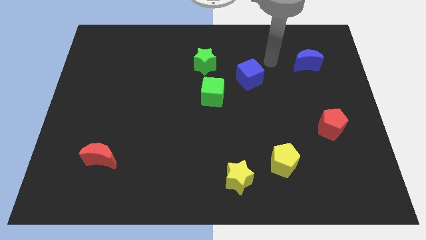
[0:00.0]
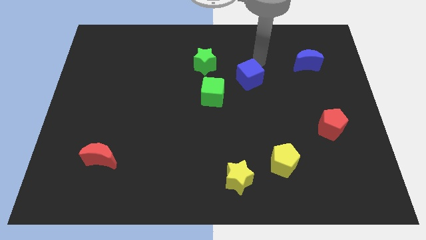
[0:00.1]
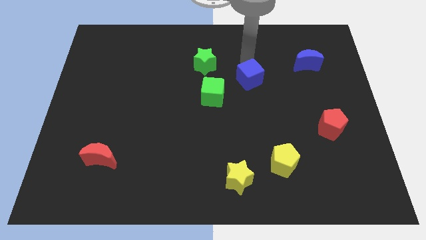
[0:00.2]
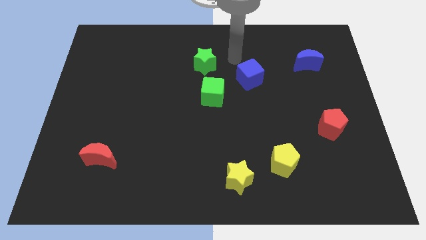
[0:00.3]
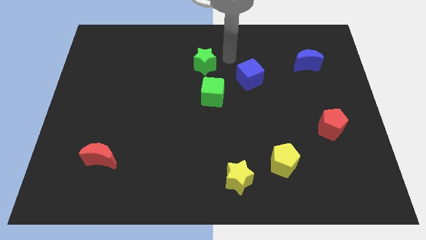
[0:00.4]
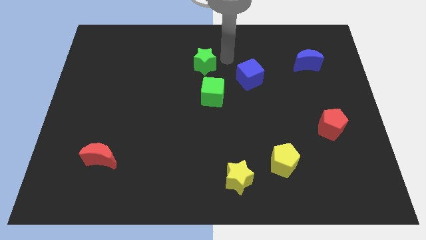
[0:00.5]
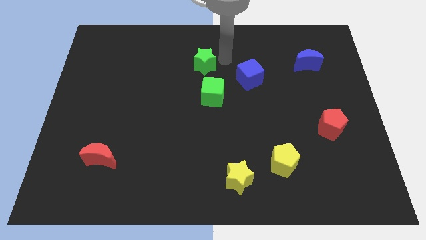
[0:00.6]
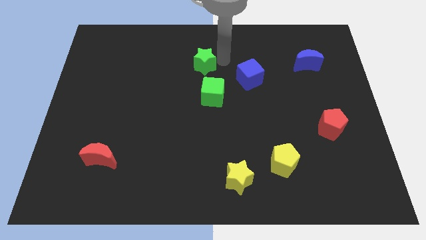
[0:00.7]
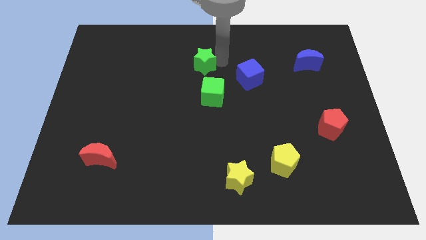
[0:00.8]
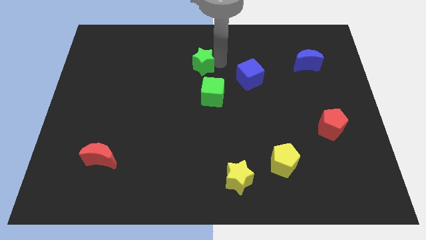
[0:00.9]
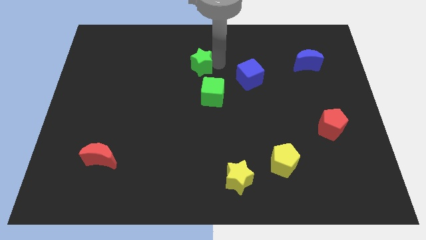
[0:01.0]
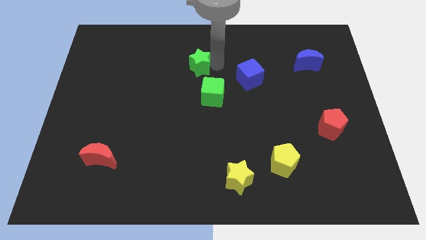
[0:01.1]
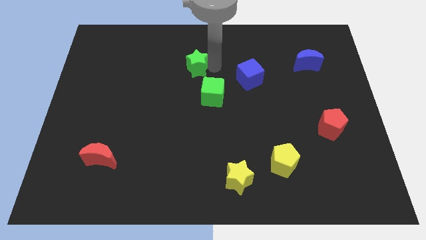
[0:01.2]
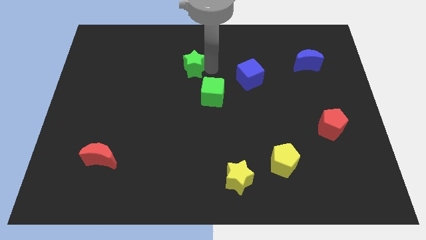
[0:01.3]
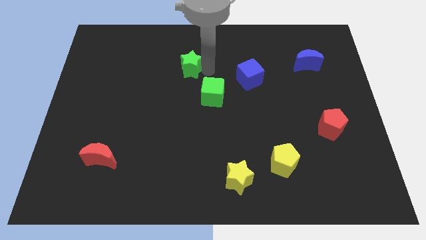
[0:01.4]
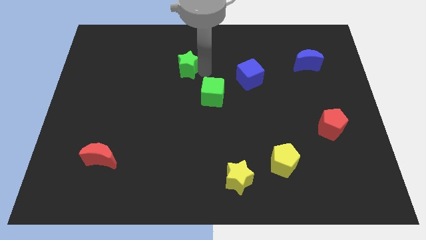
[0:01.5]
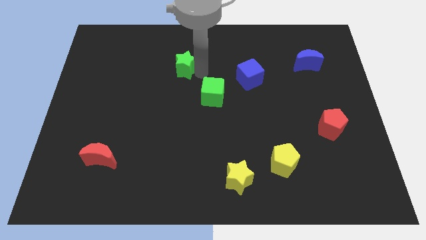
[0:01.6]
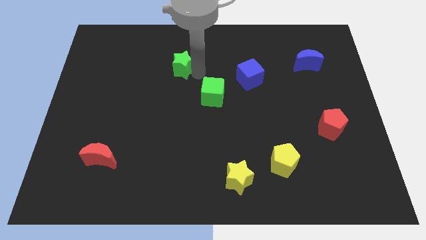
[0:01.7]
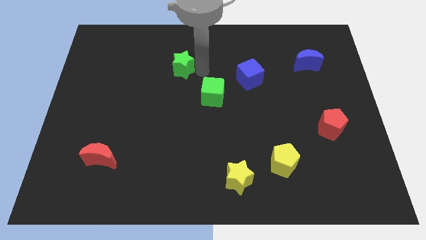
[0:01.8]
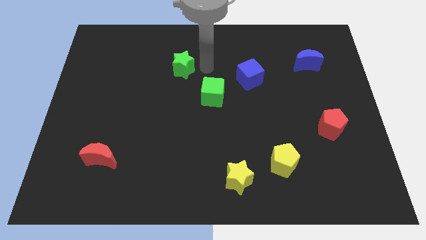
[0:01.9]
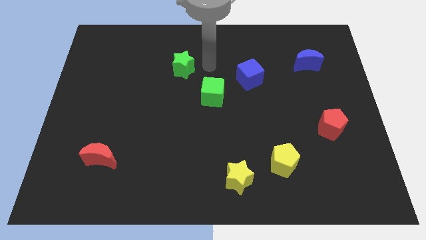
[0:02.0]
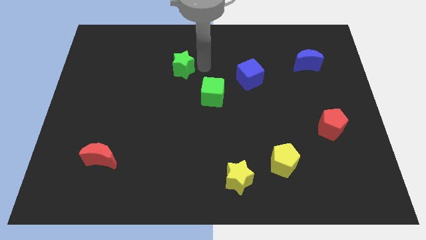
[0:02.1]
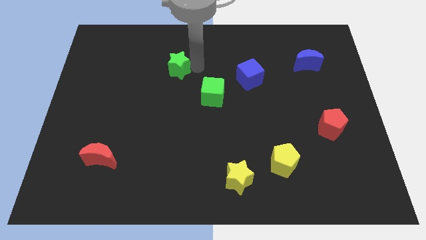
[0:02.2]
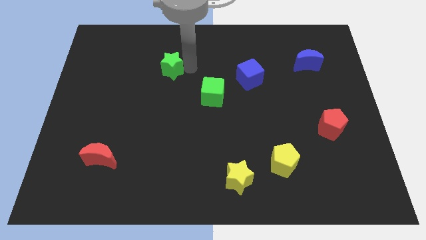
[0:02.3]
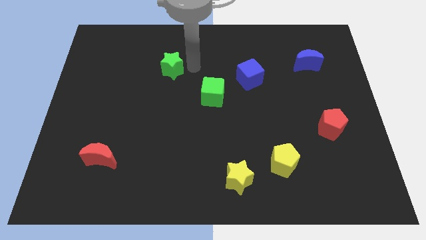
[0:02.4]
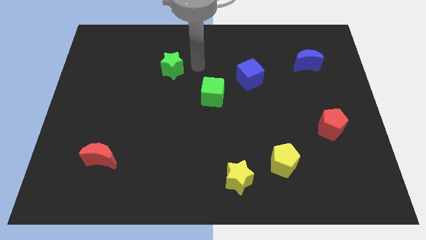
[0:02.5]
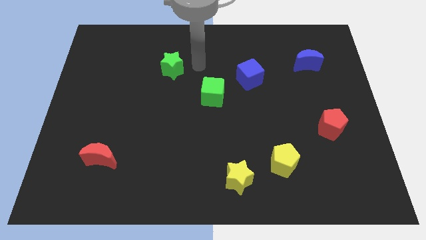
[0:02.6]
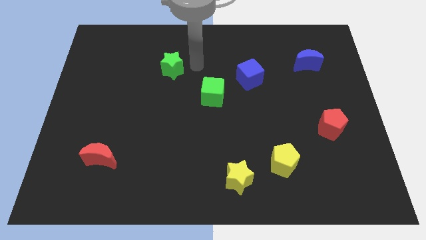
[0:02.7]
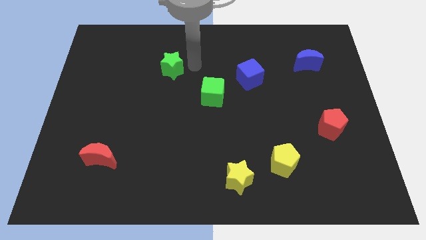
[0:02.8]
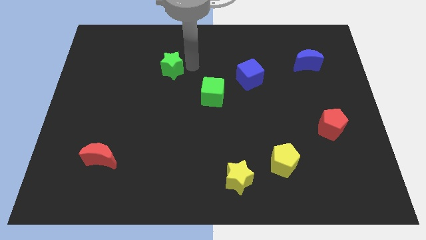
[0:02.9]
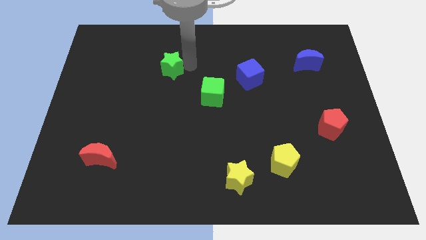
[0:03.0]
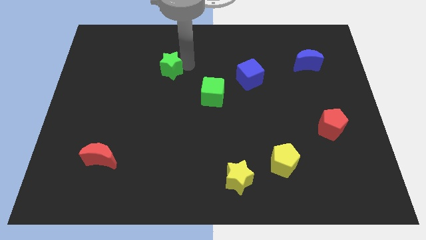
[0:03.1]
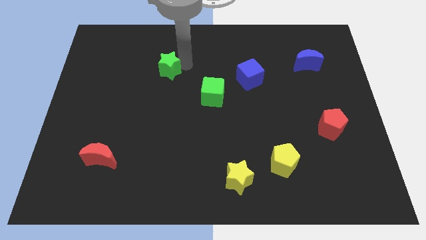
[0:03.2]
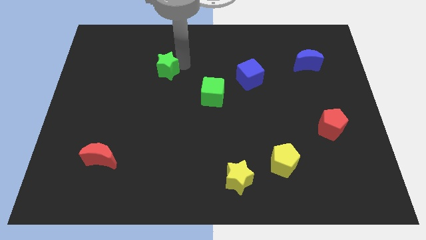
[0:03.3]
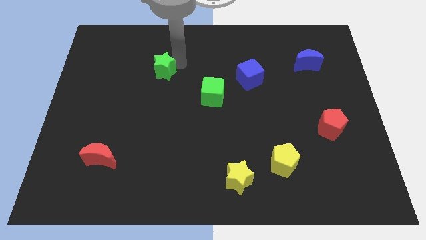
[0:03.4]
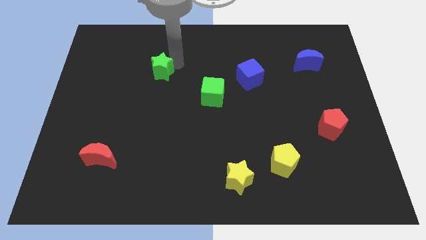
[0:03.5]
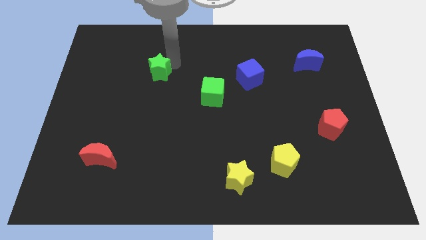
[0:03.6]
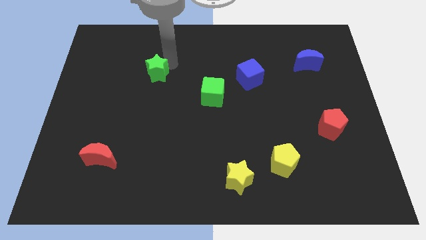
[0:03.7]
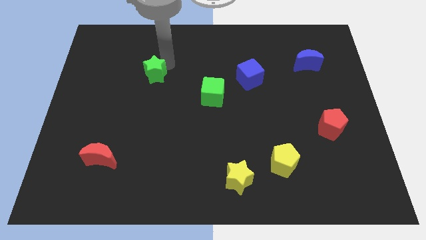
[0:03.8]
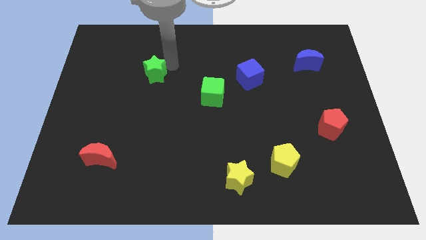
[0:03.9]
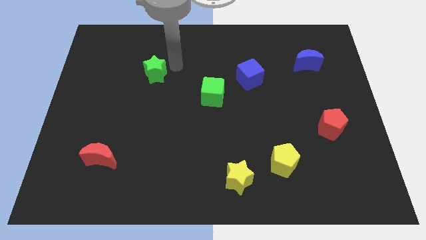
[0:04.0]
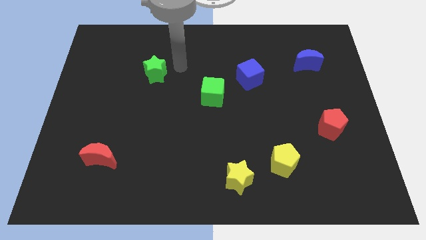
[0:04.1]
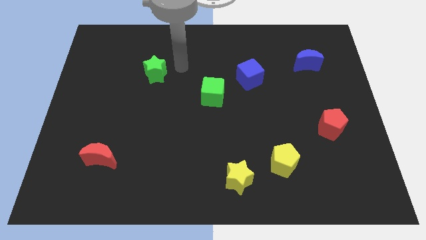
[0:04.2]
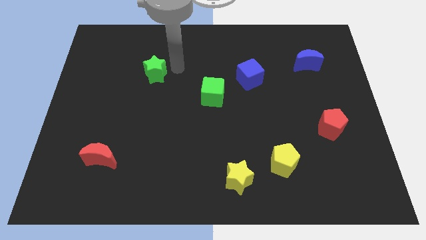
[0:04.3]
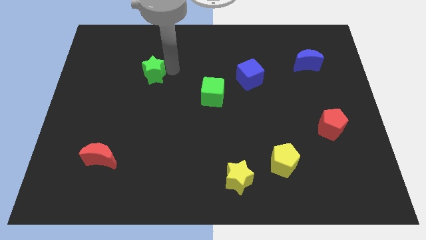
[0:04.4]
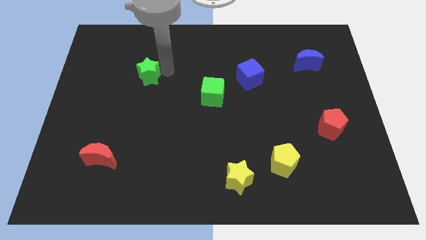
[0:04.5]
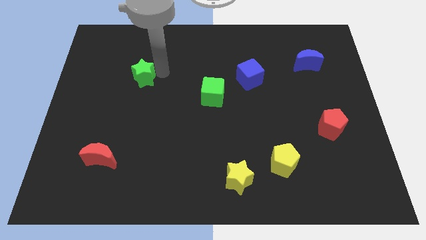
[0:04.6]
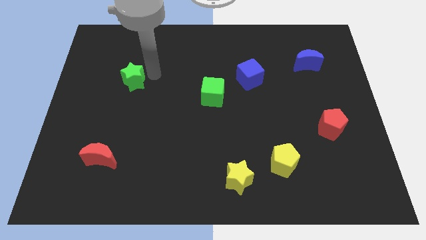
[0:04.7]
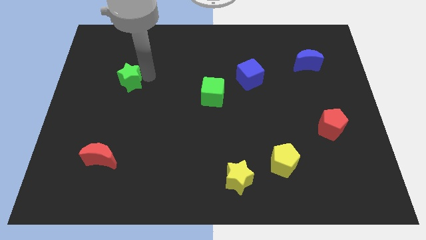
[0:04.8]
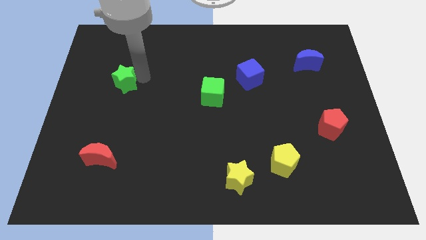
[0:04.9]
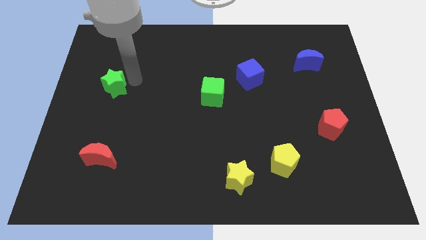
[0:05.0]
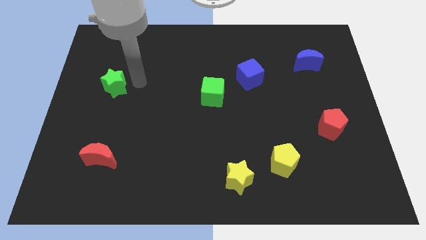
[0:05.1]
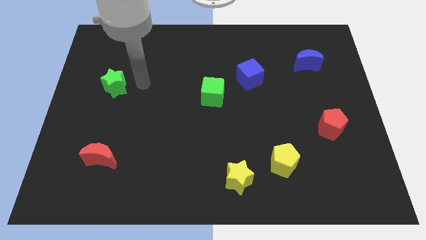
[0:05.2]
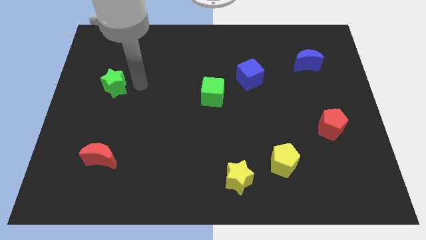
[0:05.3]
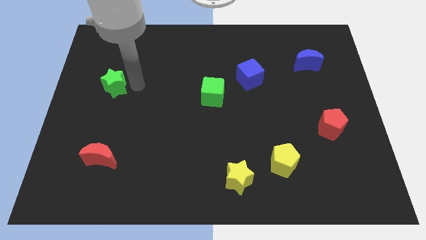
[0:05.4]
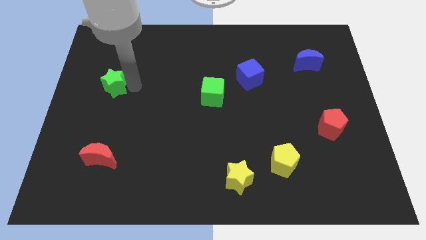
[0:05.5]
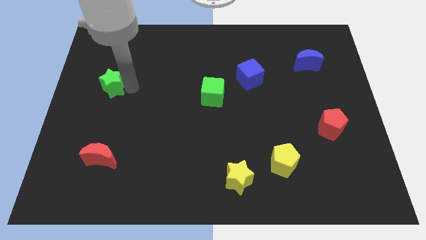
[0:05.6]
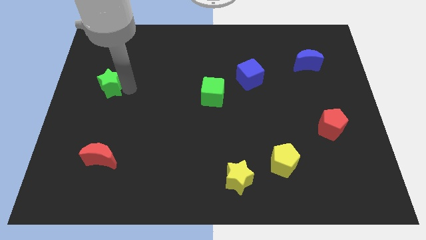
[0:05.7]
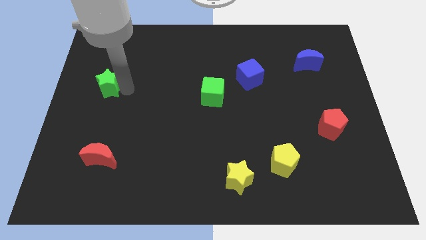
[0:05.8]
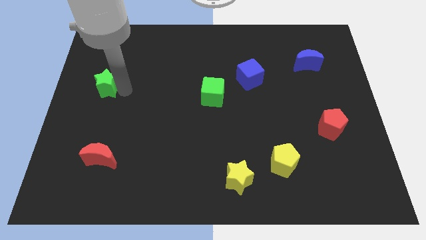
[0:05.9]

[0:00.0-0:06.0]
slide the green star to the left side
